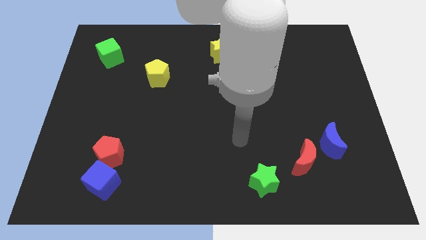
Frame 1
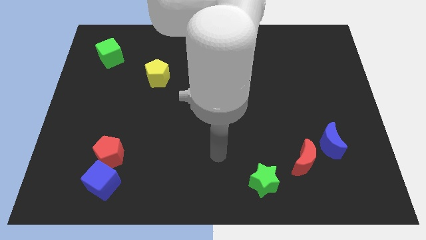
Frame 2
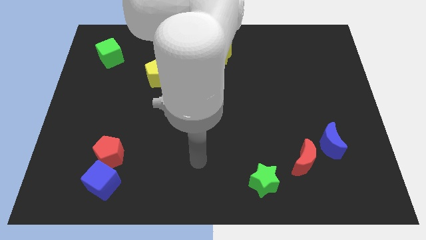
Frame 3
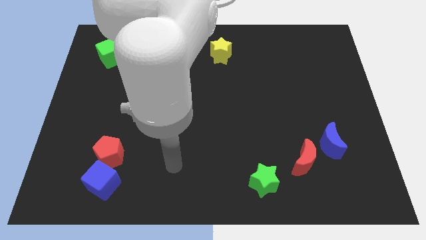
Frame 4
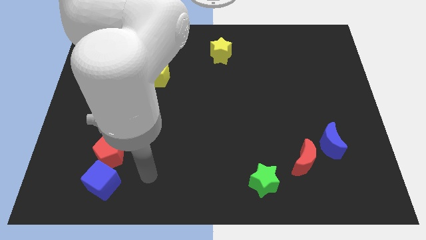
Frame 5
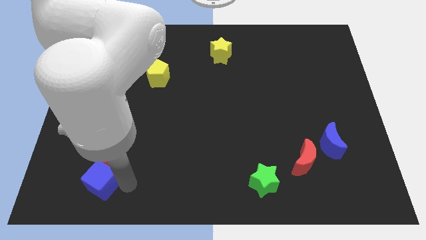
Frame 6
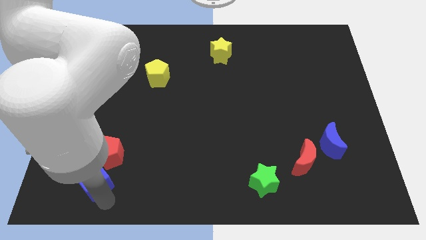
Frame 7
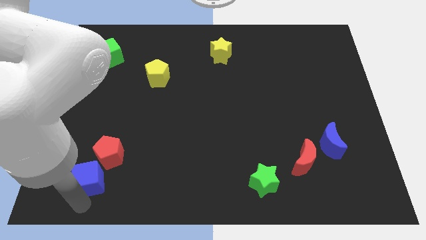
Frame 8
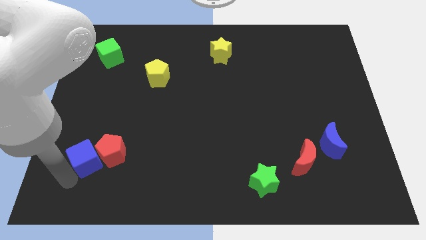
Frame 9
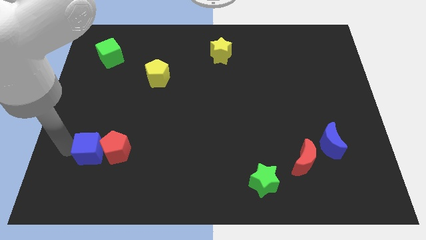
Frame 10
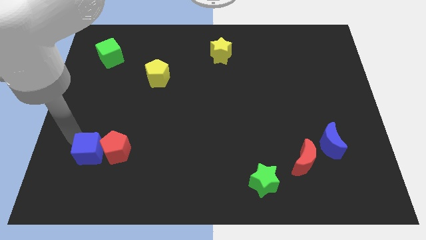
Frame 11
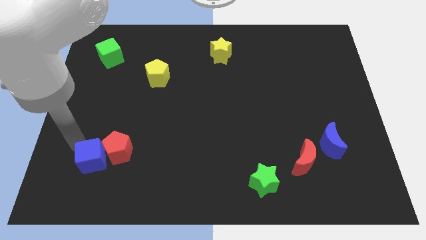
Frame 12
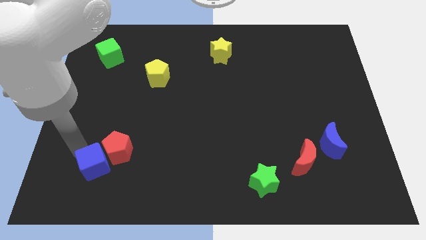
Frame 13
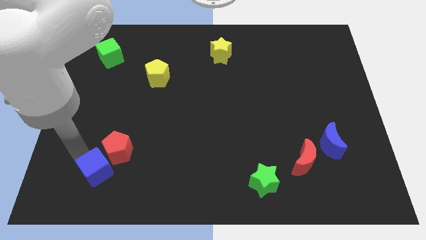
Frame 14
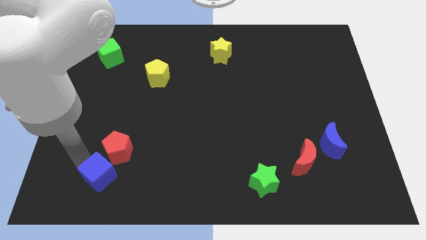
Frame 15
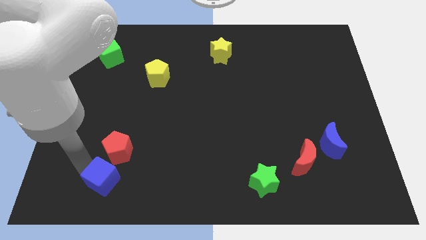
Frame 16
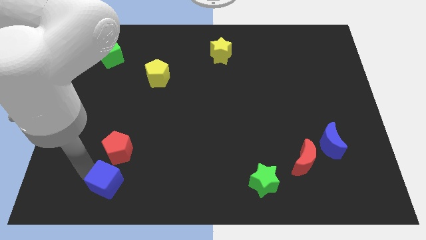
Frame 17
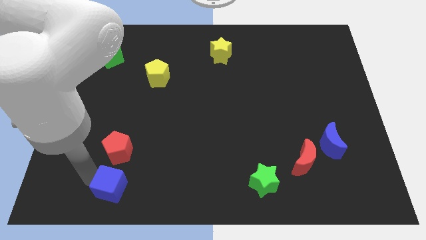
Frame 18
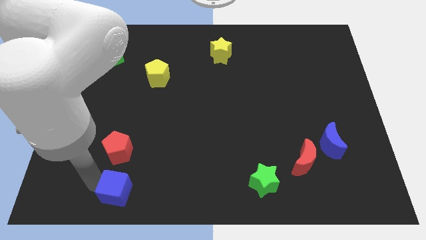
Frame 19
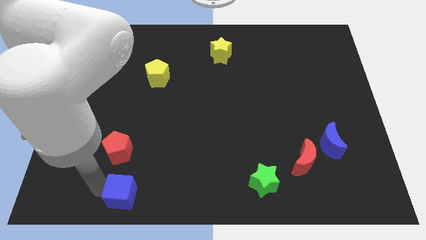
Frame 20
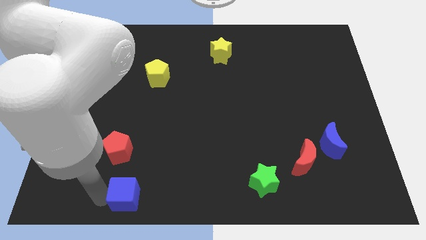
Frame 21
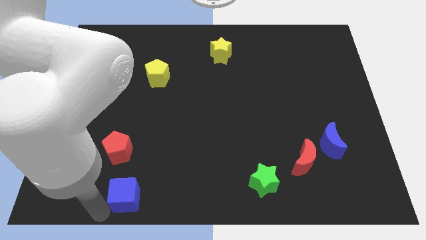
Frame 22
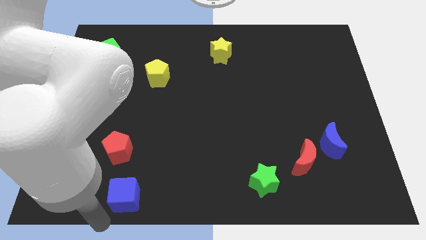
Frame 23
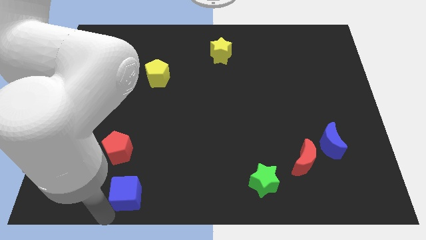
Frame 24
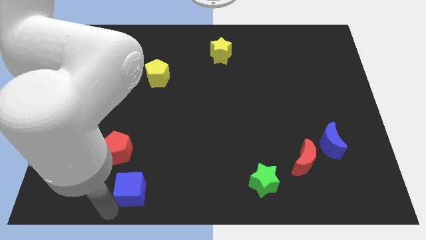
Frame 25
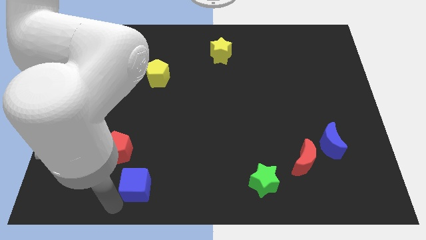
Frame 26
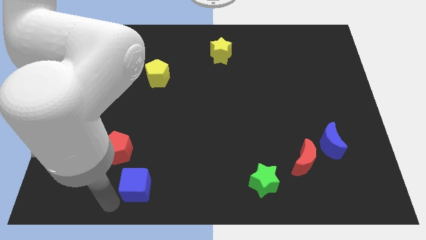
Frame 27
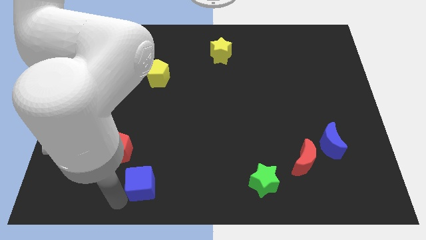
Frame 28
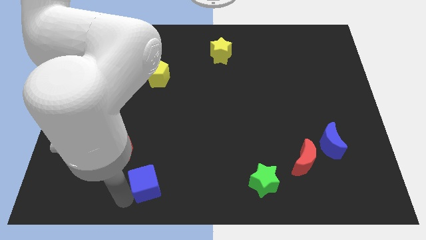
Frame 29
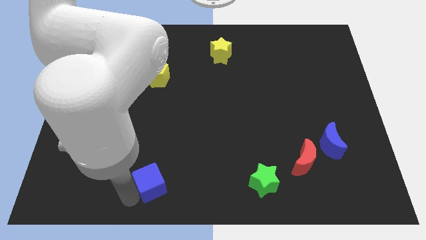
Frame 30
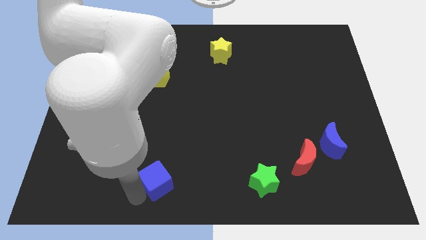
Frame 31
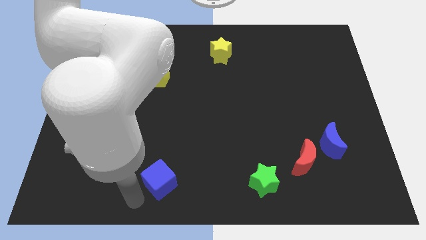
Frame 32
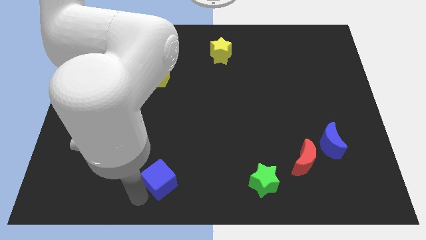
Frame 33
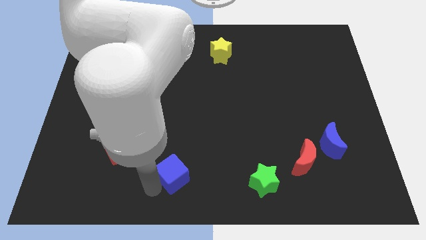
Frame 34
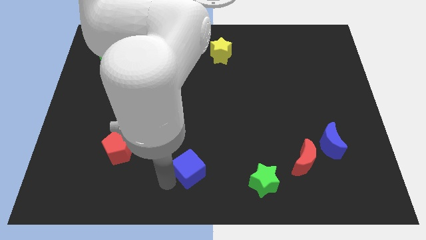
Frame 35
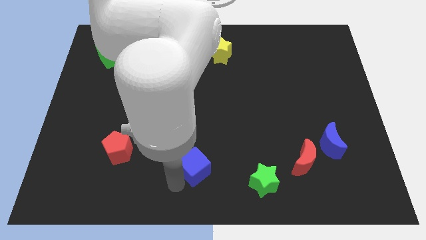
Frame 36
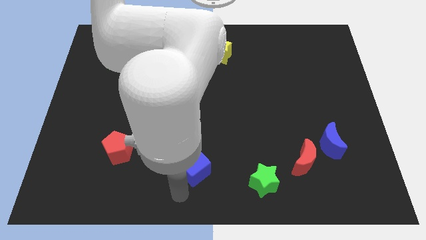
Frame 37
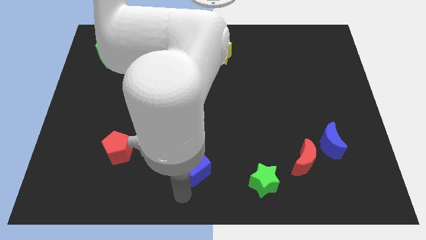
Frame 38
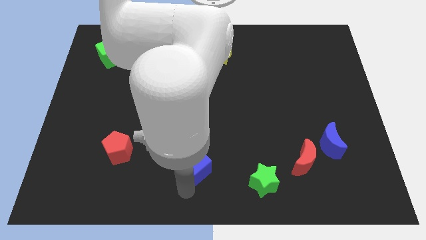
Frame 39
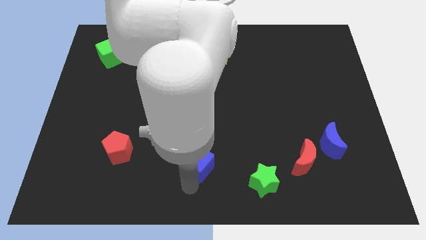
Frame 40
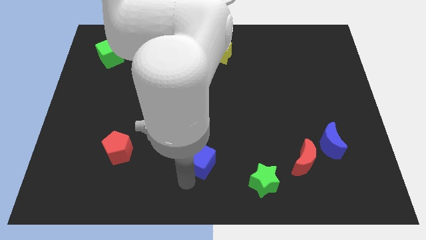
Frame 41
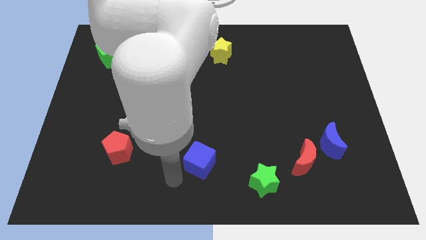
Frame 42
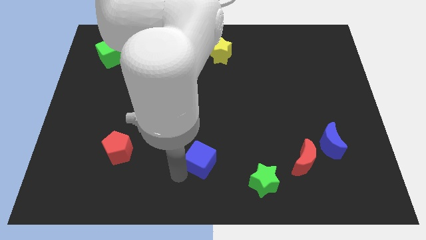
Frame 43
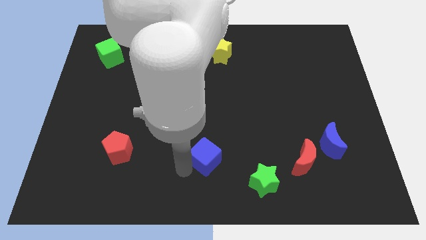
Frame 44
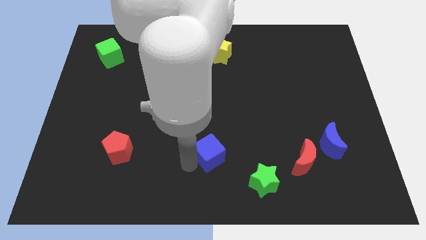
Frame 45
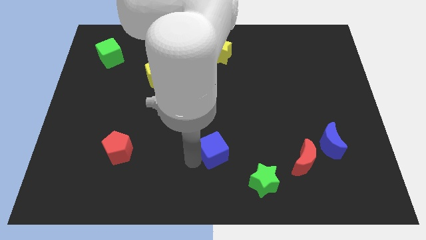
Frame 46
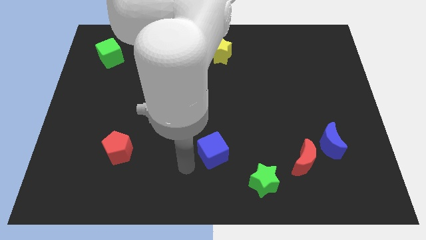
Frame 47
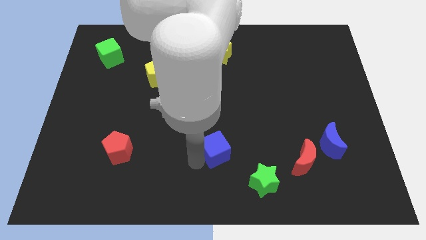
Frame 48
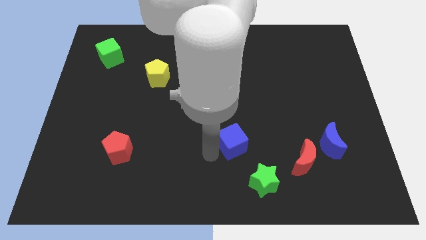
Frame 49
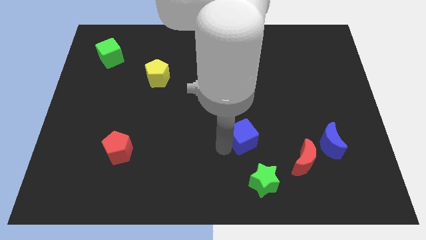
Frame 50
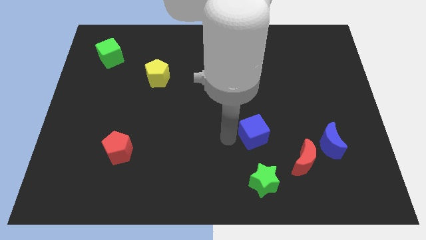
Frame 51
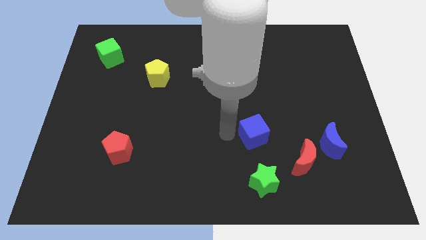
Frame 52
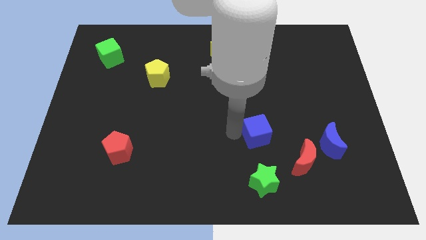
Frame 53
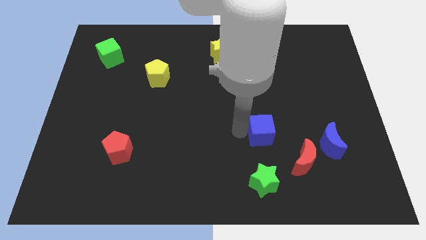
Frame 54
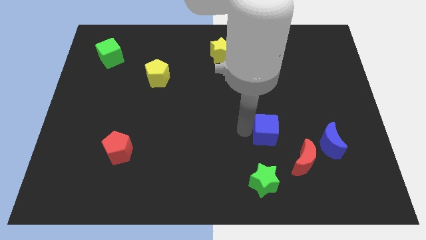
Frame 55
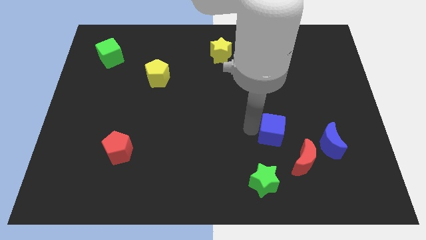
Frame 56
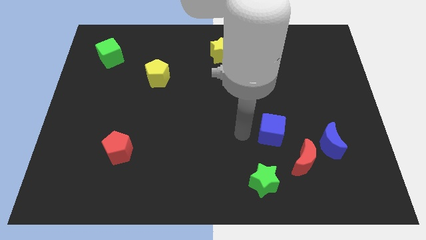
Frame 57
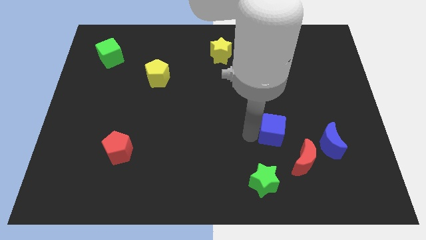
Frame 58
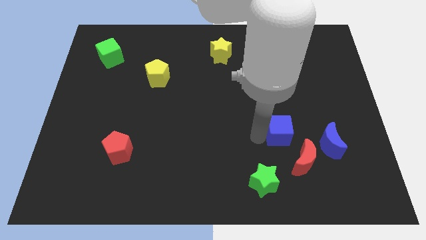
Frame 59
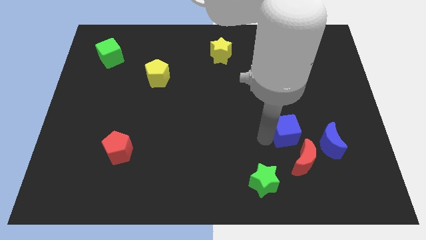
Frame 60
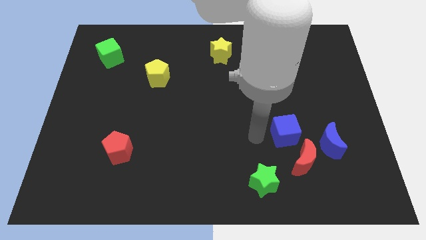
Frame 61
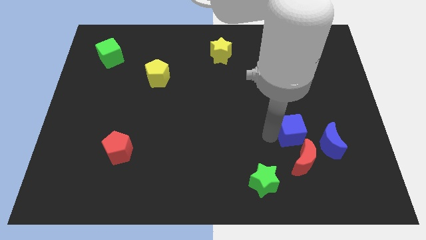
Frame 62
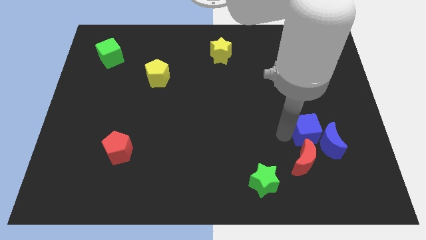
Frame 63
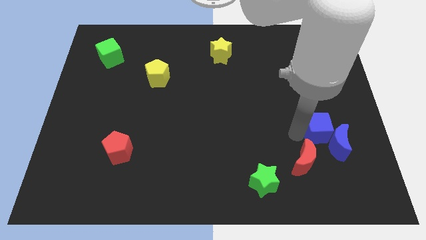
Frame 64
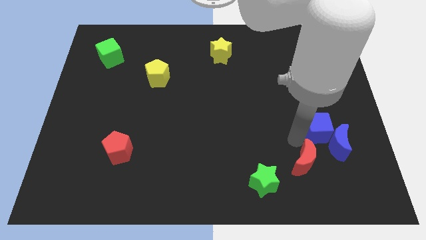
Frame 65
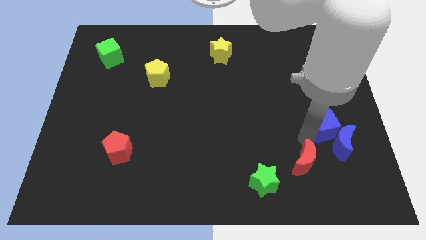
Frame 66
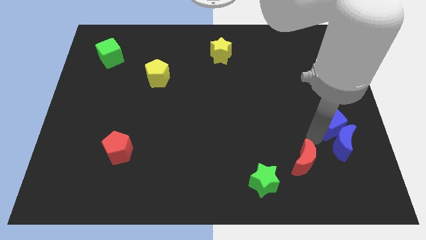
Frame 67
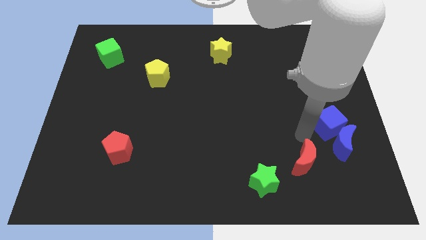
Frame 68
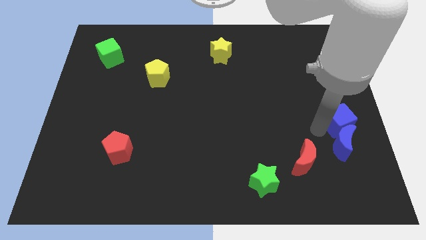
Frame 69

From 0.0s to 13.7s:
push the blue cube to the center right
